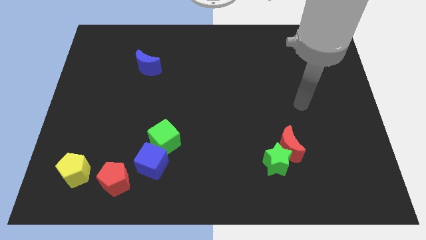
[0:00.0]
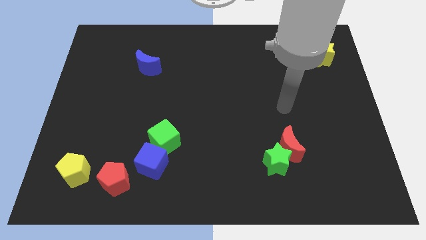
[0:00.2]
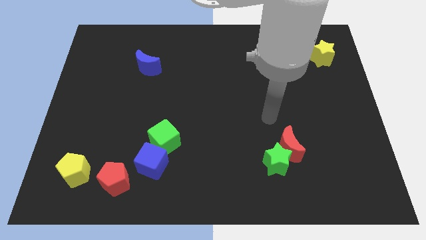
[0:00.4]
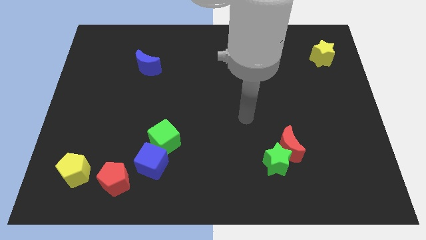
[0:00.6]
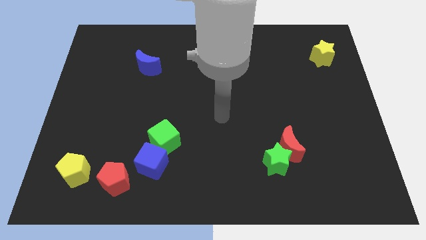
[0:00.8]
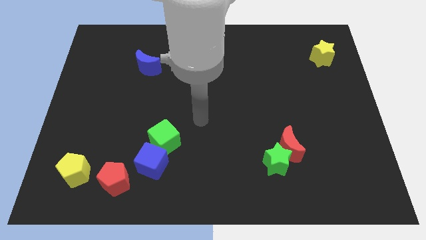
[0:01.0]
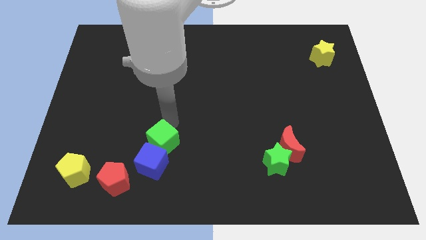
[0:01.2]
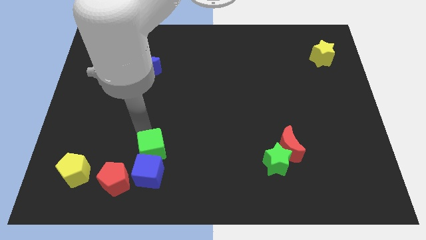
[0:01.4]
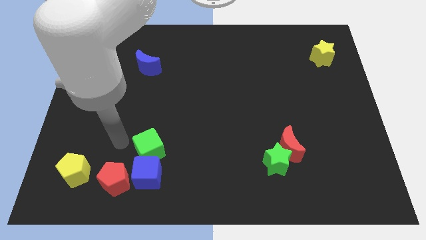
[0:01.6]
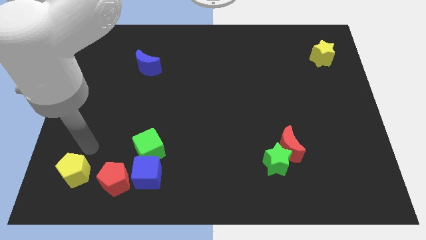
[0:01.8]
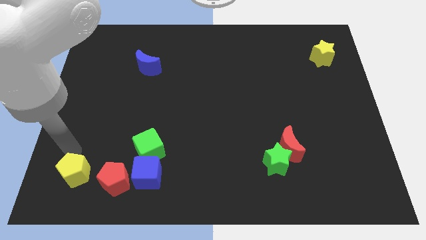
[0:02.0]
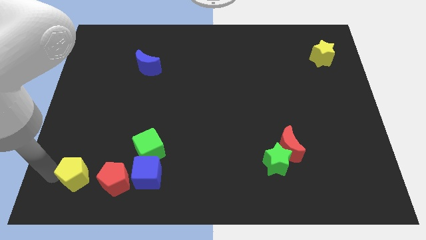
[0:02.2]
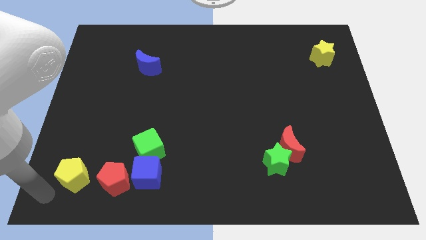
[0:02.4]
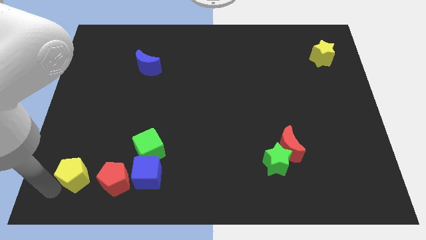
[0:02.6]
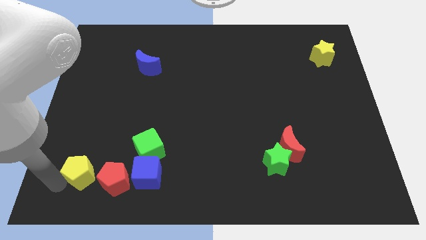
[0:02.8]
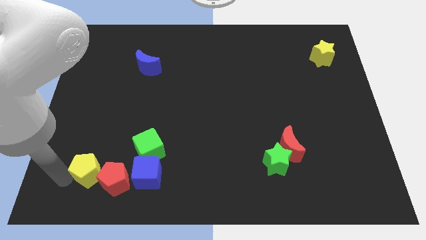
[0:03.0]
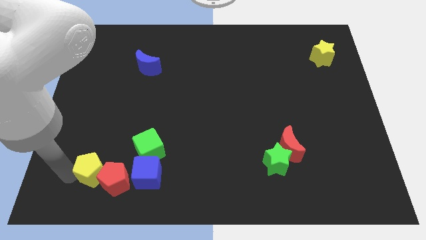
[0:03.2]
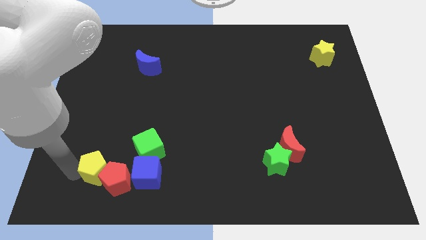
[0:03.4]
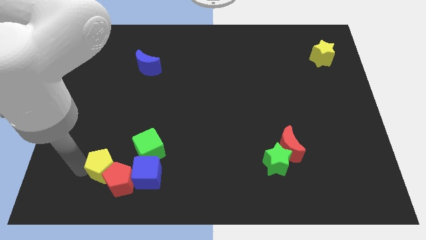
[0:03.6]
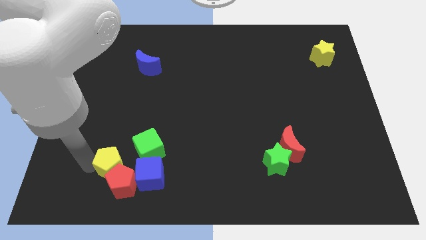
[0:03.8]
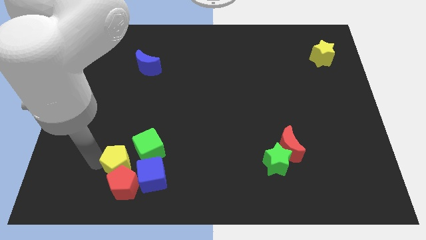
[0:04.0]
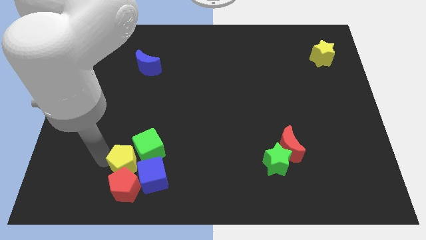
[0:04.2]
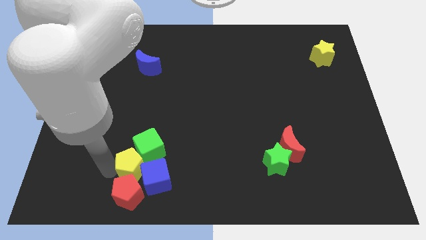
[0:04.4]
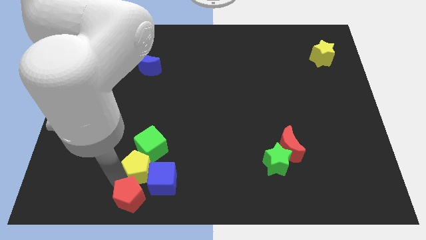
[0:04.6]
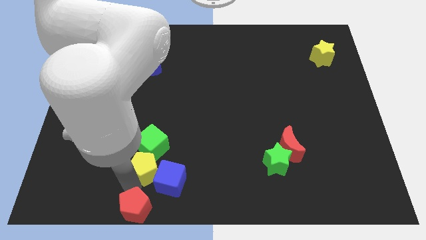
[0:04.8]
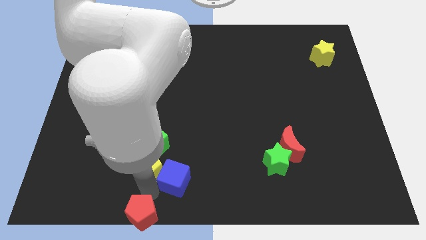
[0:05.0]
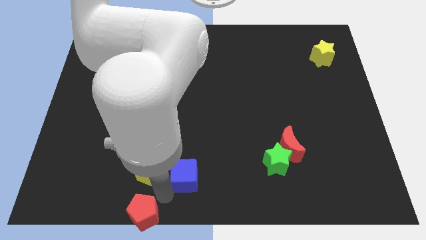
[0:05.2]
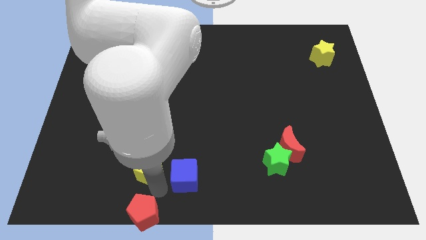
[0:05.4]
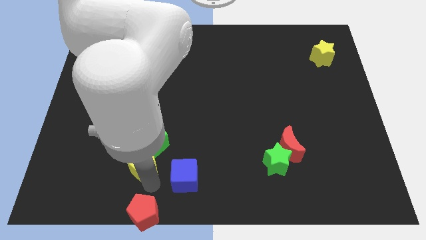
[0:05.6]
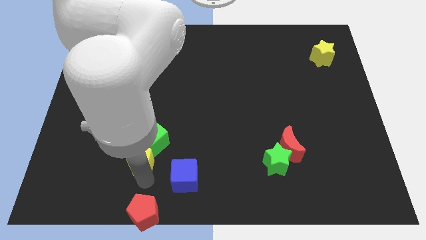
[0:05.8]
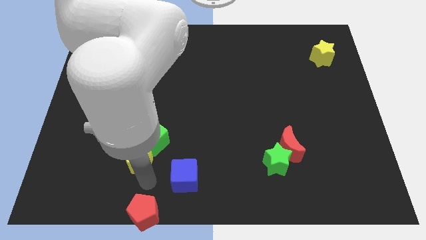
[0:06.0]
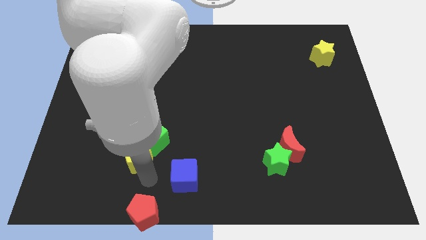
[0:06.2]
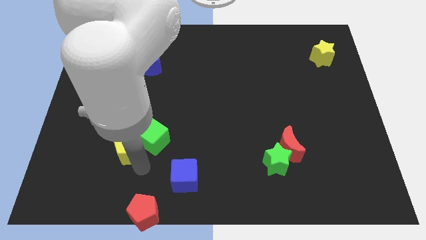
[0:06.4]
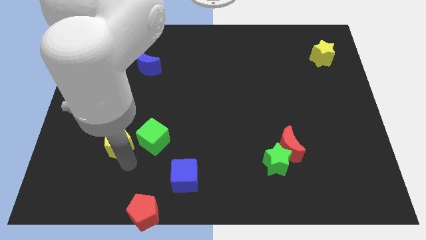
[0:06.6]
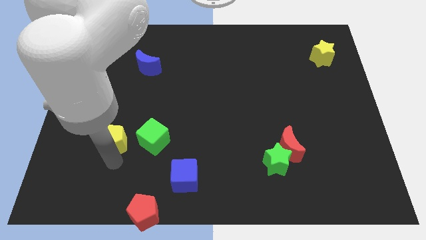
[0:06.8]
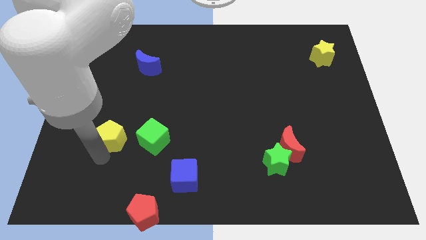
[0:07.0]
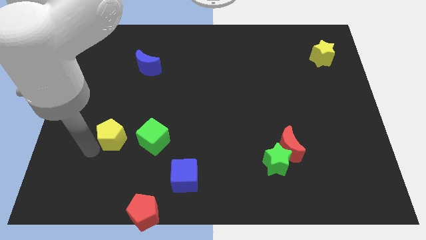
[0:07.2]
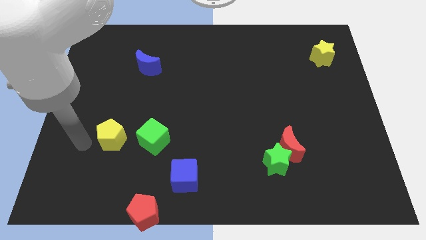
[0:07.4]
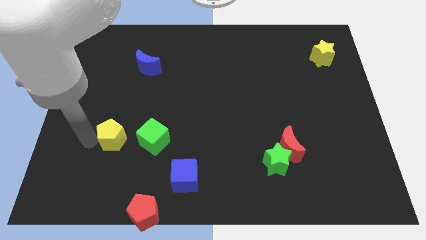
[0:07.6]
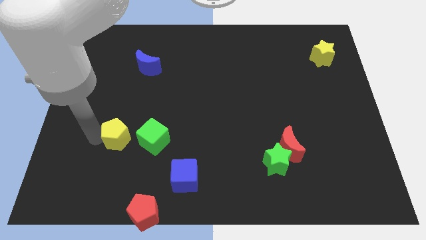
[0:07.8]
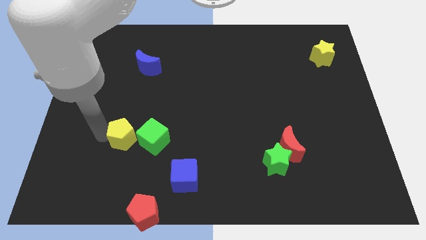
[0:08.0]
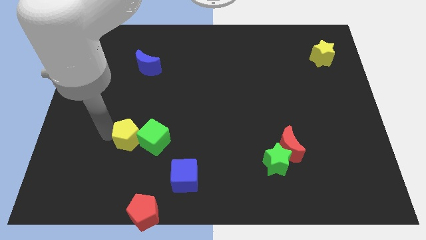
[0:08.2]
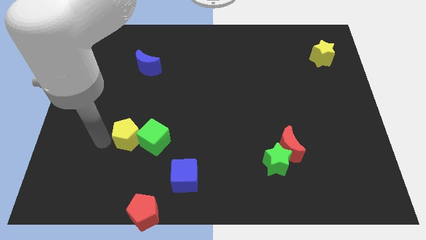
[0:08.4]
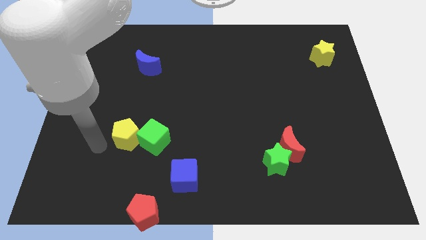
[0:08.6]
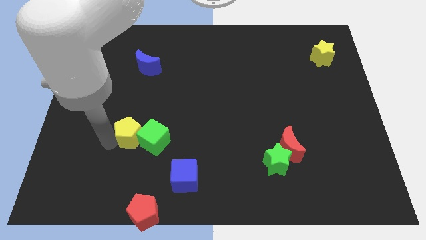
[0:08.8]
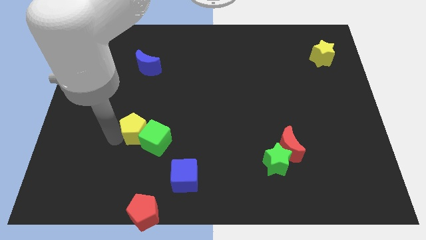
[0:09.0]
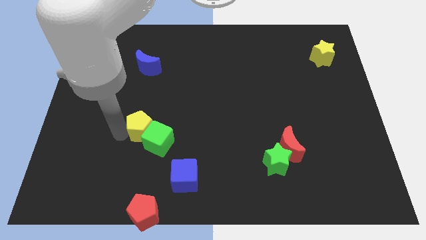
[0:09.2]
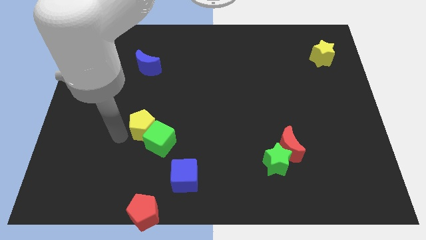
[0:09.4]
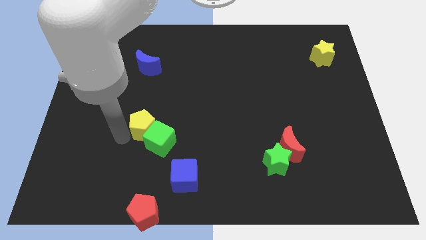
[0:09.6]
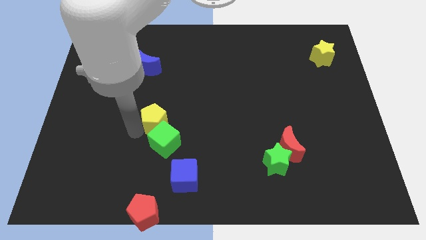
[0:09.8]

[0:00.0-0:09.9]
move the yellow pentagon diagonally upwards and to the right

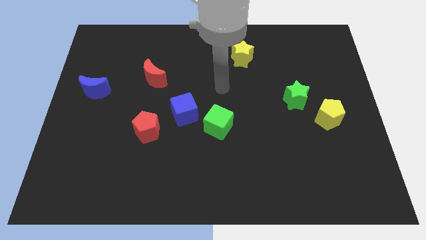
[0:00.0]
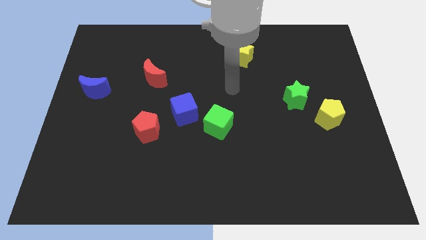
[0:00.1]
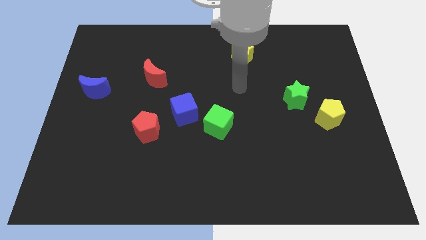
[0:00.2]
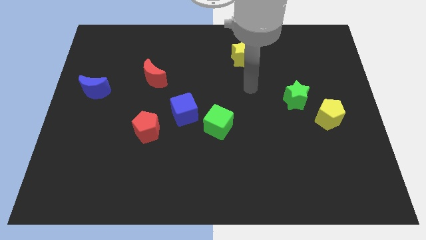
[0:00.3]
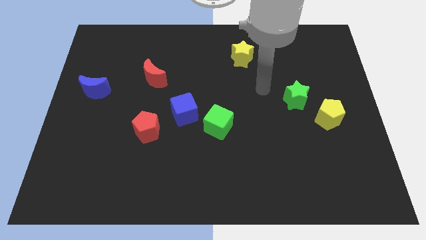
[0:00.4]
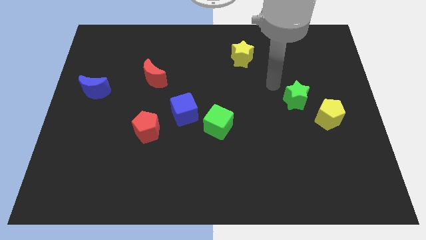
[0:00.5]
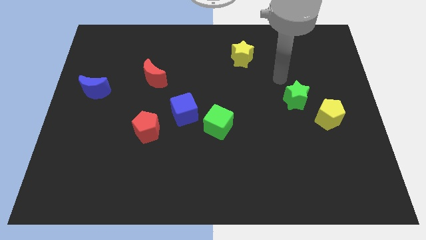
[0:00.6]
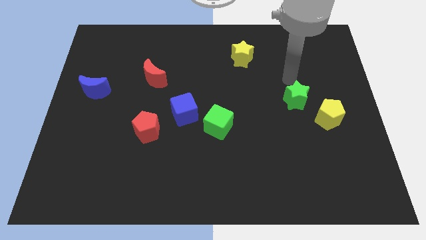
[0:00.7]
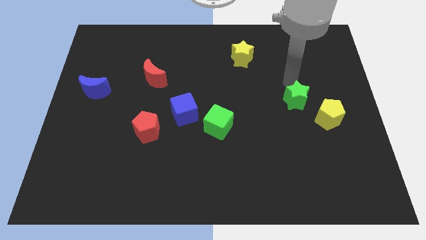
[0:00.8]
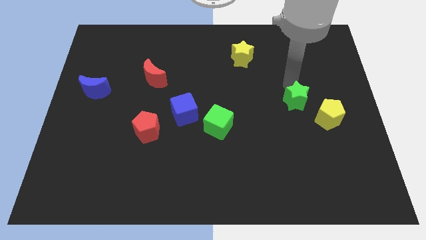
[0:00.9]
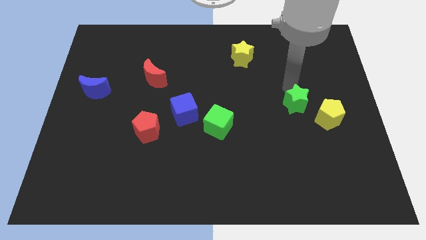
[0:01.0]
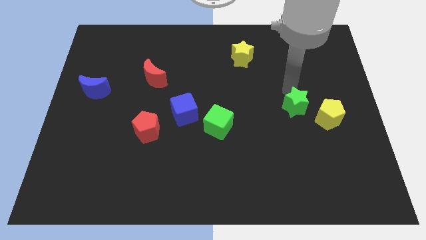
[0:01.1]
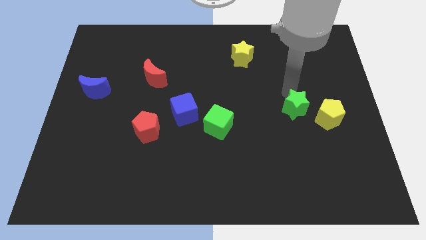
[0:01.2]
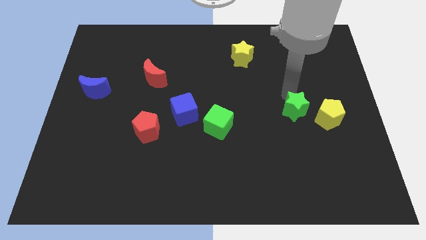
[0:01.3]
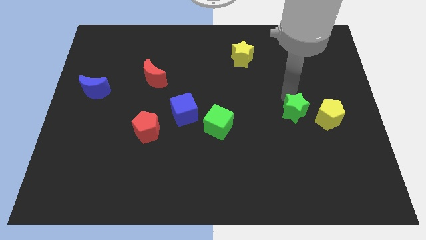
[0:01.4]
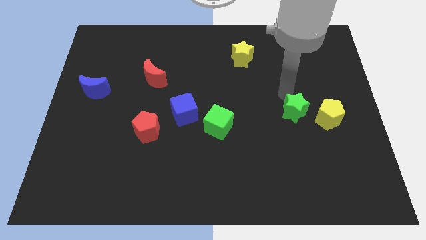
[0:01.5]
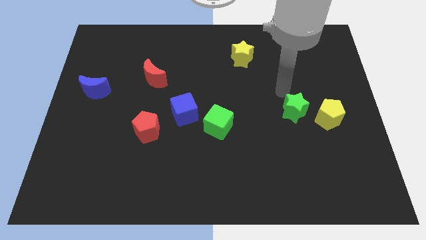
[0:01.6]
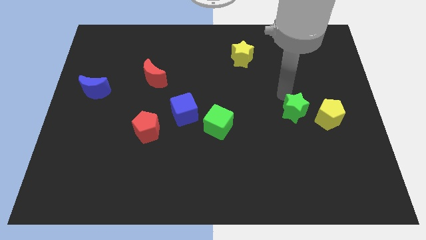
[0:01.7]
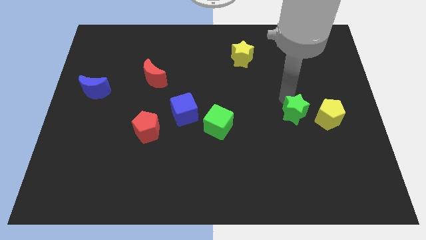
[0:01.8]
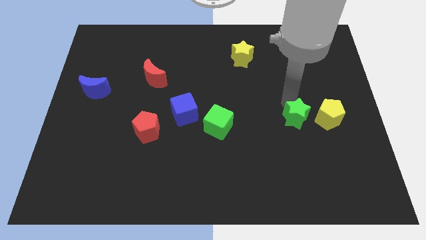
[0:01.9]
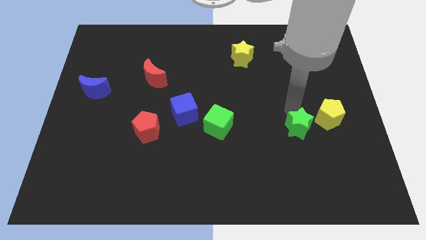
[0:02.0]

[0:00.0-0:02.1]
push the green star somewhat downwards

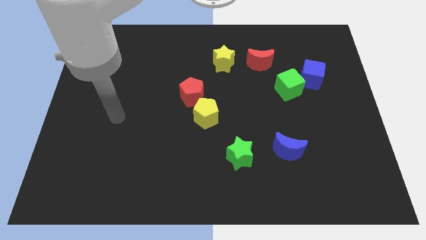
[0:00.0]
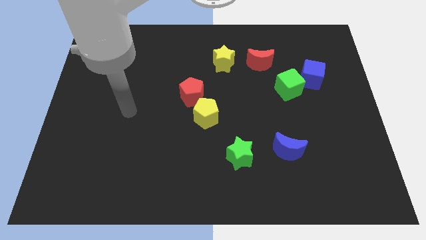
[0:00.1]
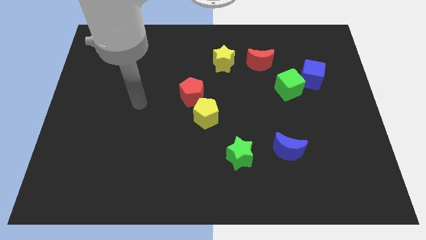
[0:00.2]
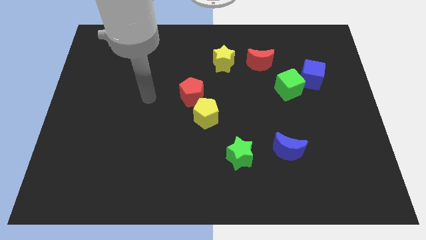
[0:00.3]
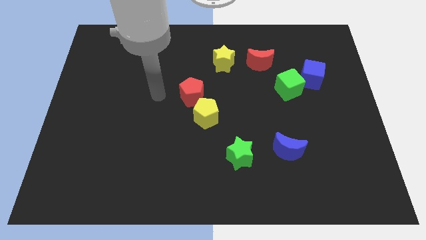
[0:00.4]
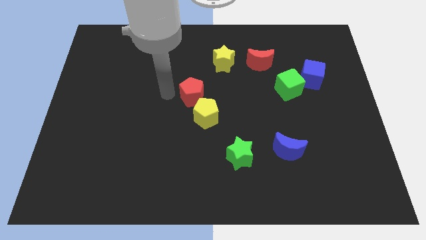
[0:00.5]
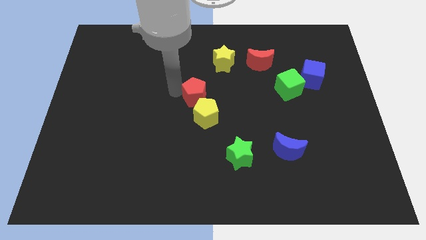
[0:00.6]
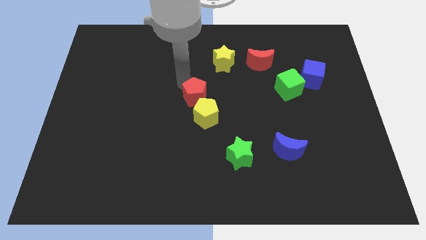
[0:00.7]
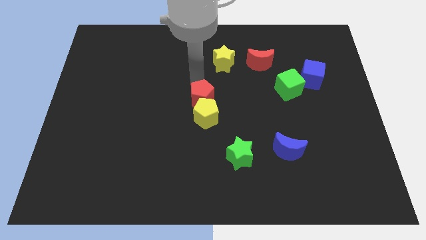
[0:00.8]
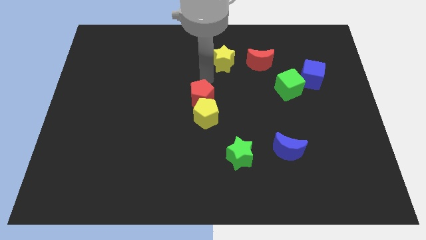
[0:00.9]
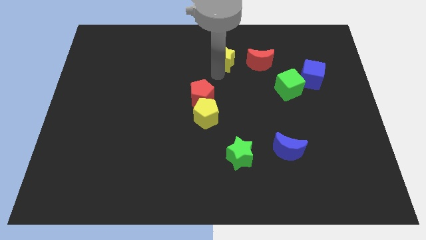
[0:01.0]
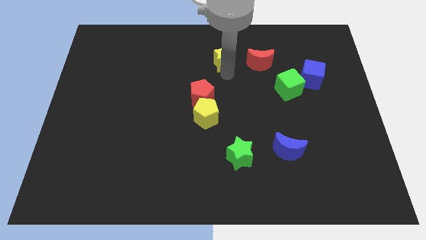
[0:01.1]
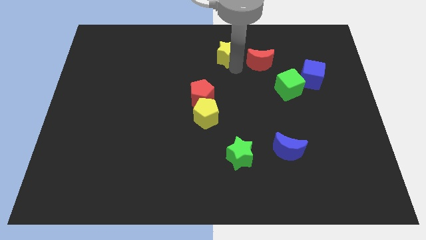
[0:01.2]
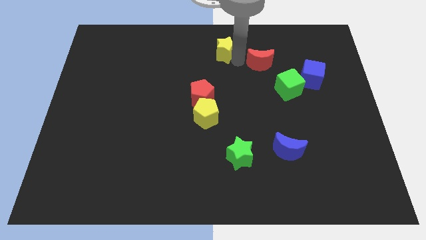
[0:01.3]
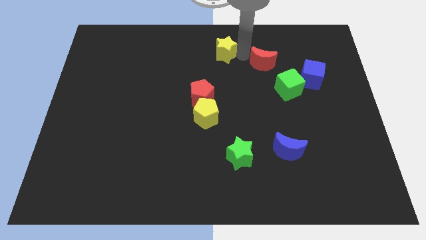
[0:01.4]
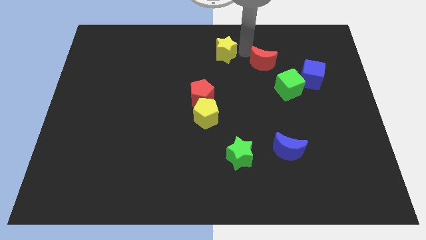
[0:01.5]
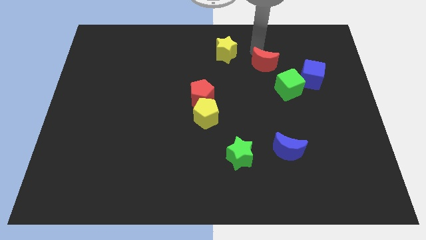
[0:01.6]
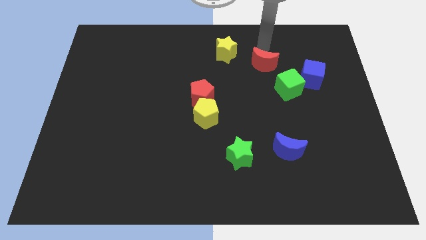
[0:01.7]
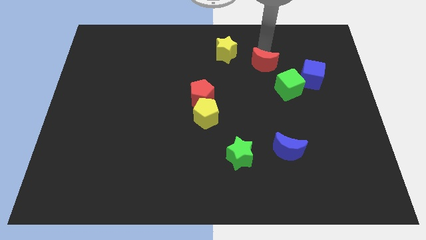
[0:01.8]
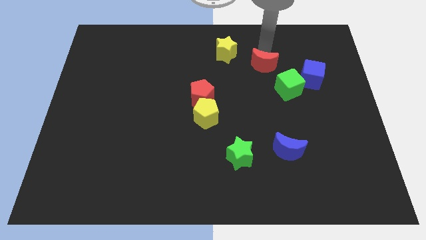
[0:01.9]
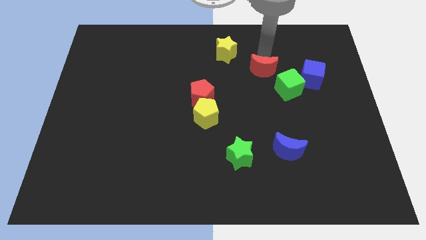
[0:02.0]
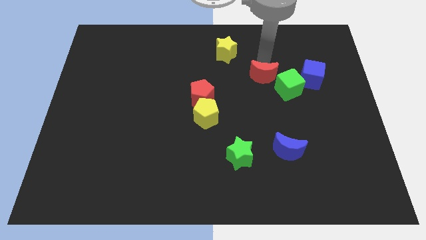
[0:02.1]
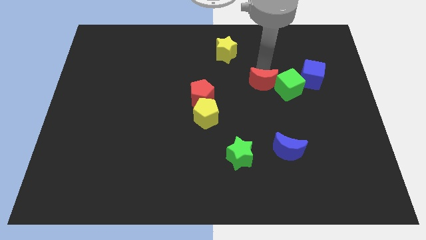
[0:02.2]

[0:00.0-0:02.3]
push the red moon downwards a little
